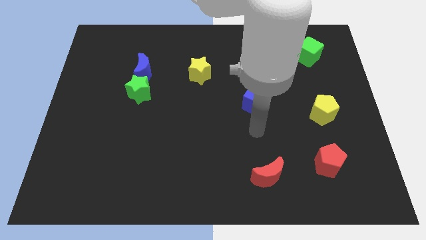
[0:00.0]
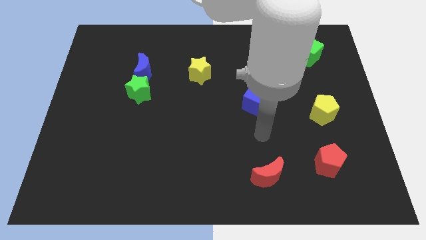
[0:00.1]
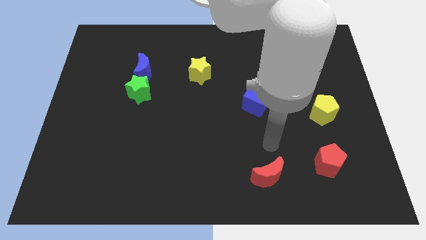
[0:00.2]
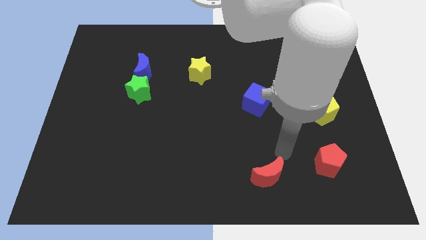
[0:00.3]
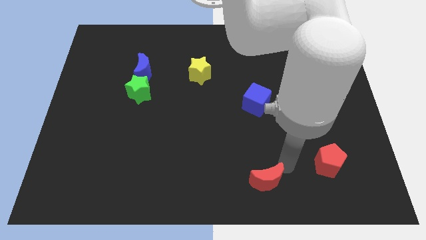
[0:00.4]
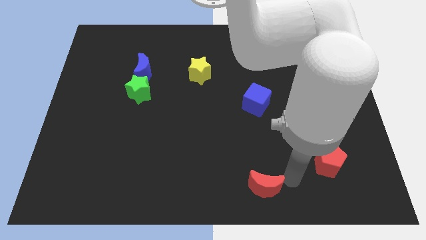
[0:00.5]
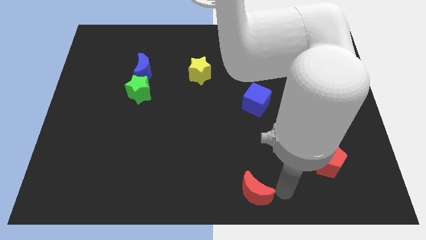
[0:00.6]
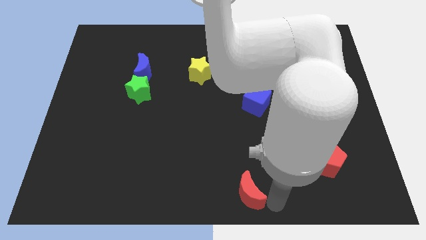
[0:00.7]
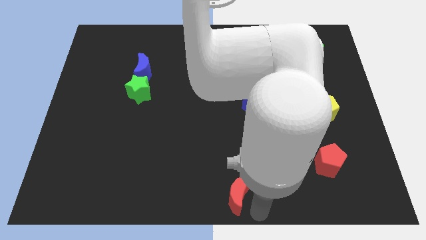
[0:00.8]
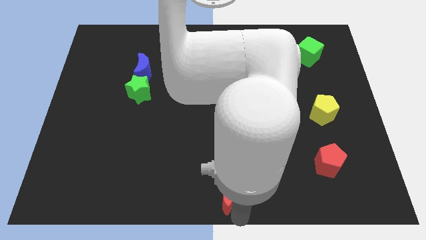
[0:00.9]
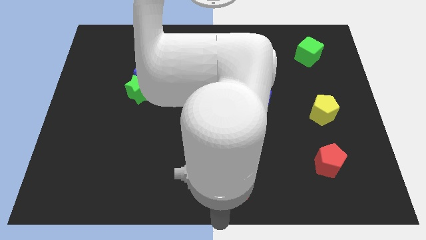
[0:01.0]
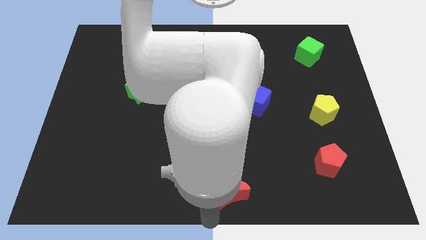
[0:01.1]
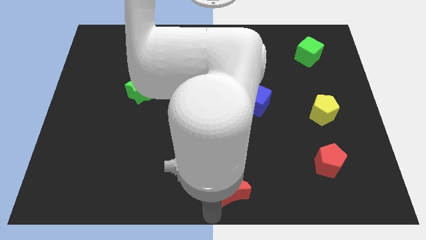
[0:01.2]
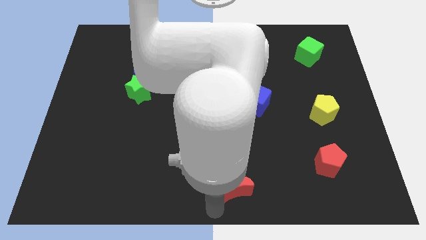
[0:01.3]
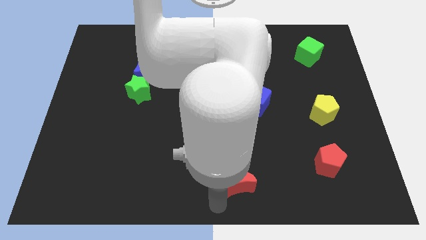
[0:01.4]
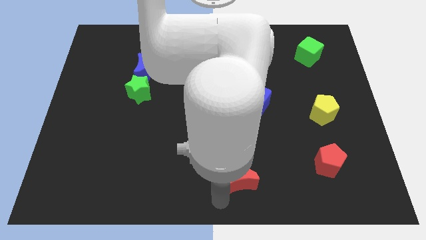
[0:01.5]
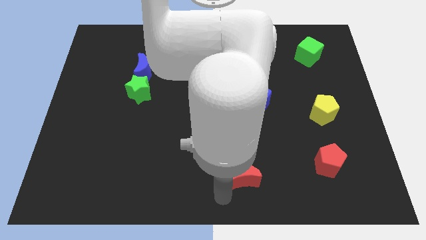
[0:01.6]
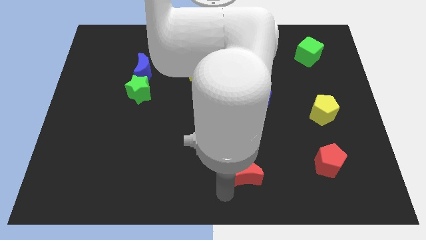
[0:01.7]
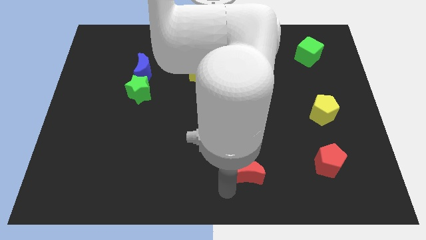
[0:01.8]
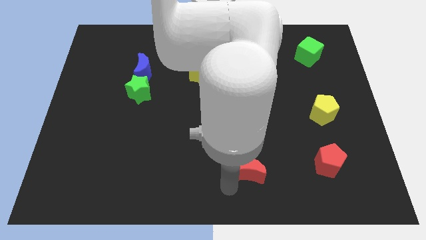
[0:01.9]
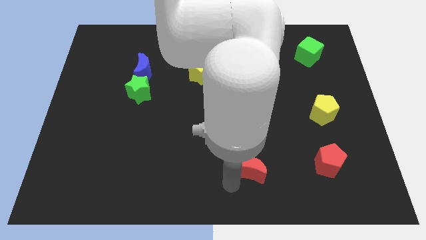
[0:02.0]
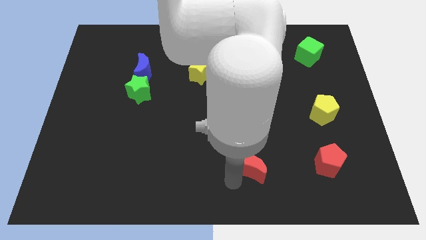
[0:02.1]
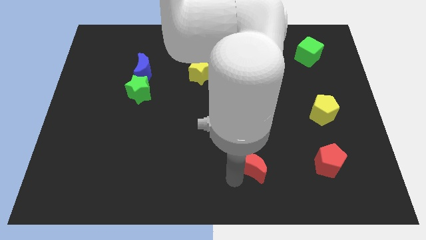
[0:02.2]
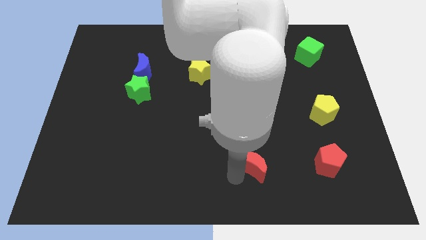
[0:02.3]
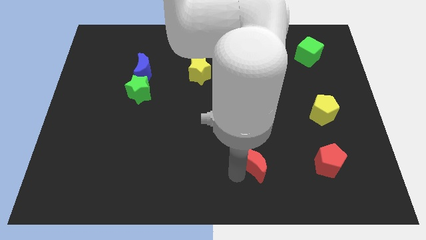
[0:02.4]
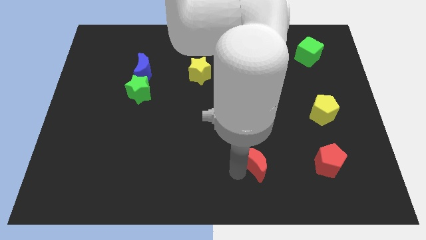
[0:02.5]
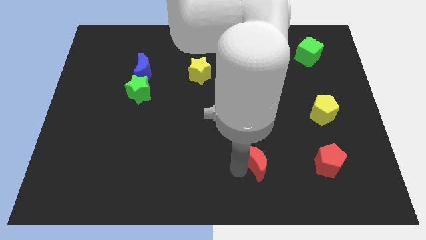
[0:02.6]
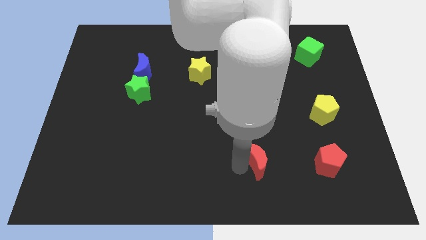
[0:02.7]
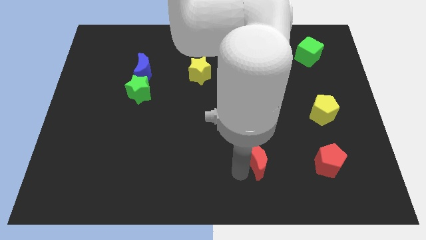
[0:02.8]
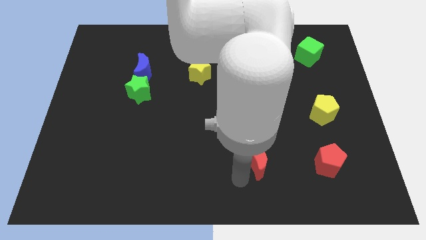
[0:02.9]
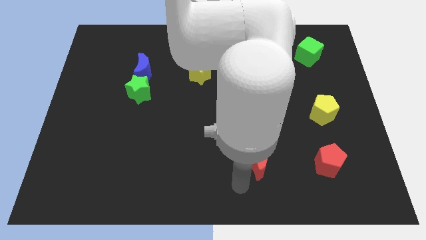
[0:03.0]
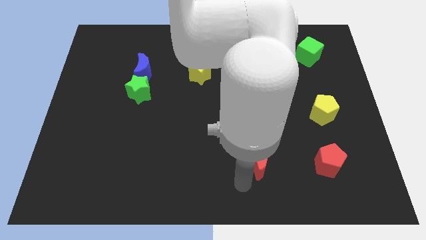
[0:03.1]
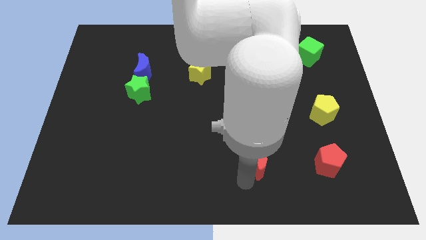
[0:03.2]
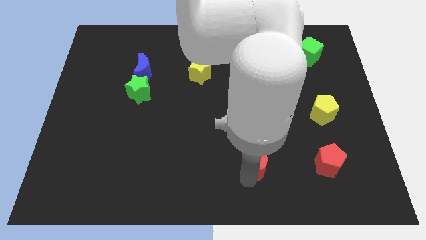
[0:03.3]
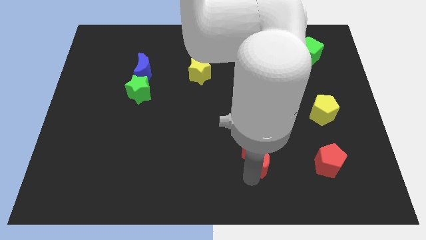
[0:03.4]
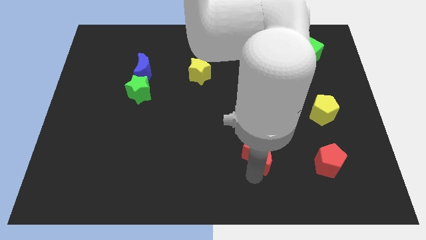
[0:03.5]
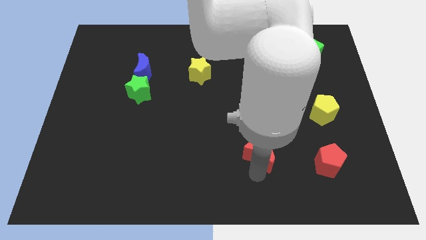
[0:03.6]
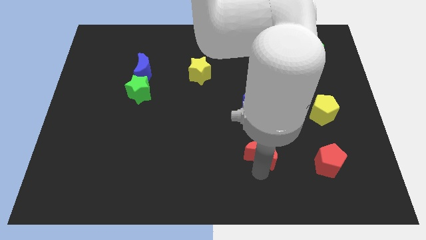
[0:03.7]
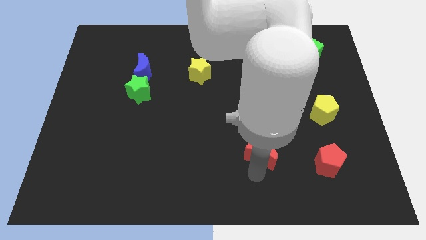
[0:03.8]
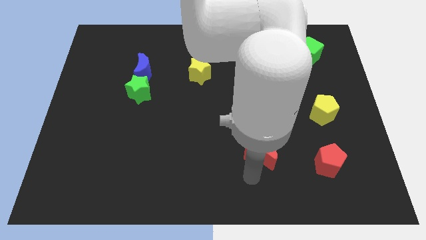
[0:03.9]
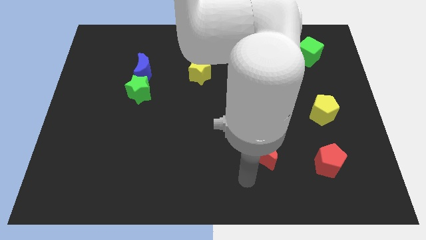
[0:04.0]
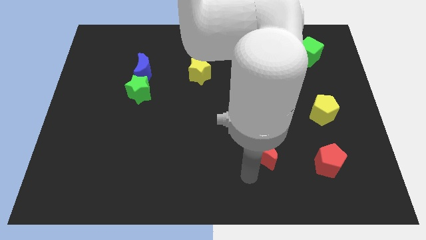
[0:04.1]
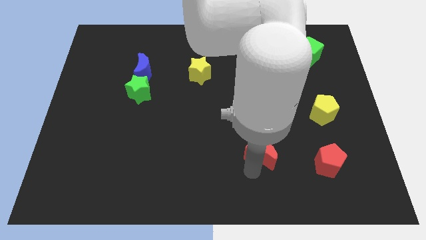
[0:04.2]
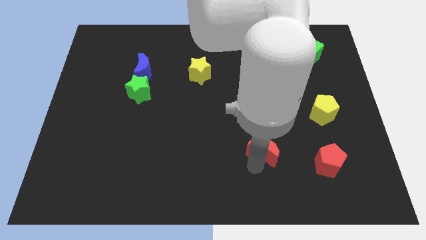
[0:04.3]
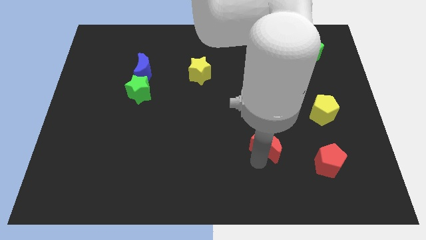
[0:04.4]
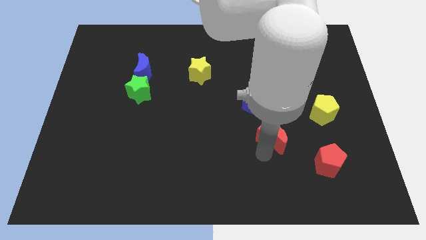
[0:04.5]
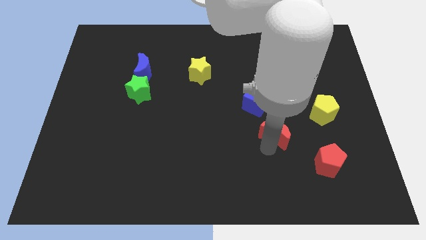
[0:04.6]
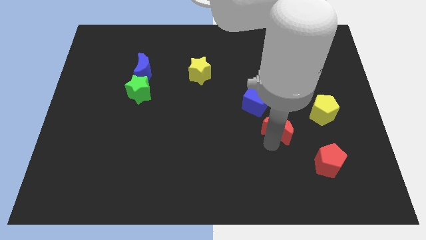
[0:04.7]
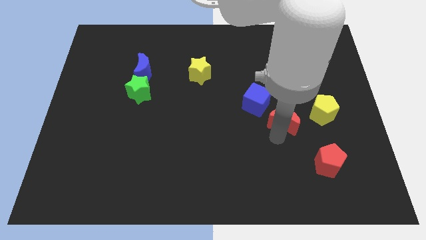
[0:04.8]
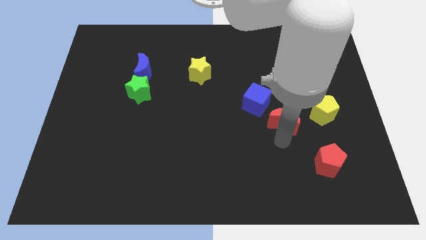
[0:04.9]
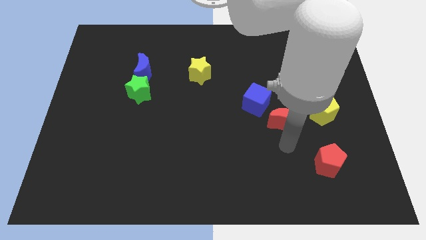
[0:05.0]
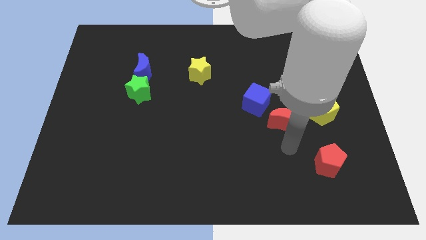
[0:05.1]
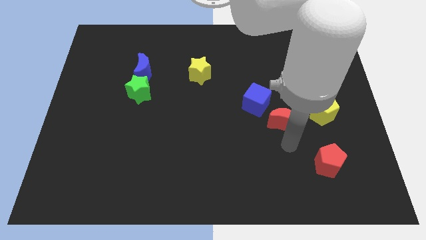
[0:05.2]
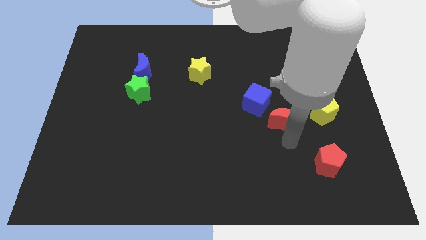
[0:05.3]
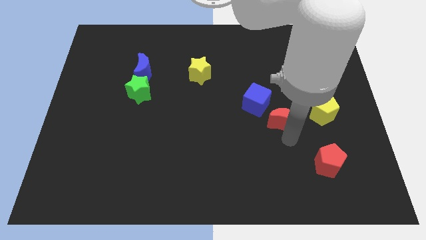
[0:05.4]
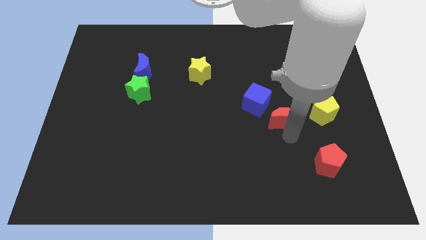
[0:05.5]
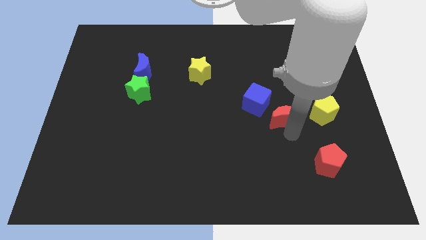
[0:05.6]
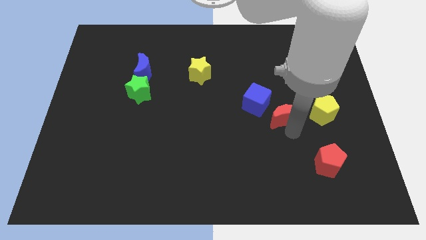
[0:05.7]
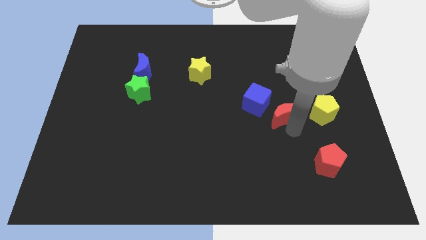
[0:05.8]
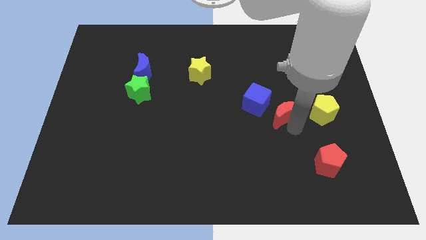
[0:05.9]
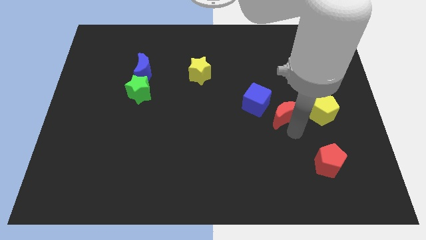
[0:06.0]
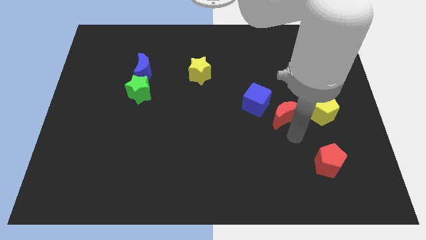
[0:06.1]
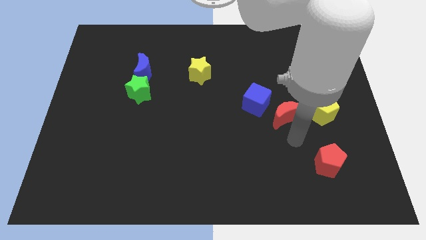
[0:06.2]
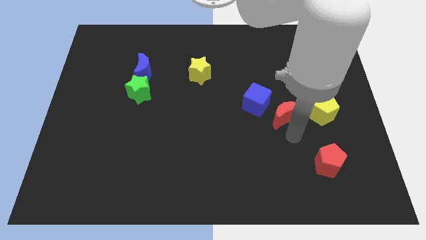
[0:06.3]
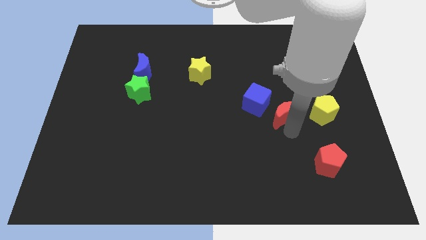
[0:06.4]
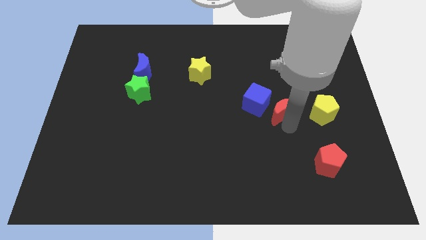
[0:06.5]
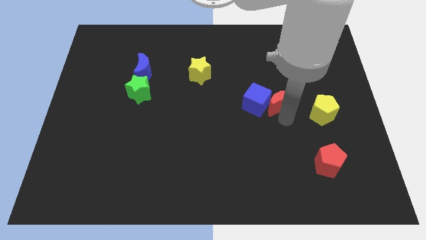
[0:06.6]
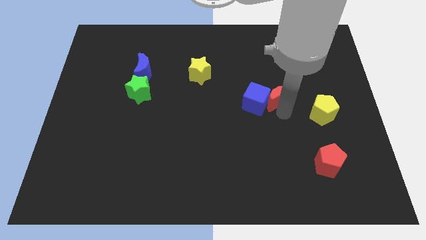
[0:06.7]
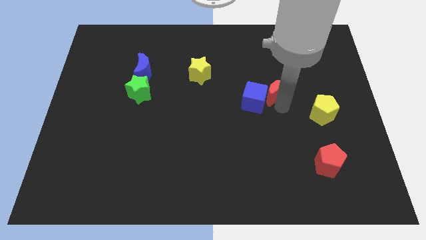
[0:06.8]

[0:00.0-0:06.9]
move the red moon upwards

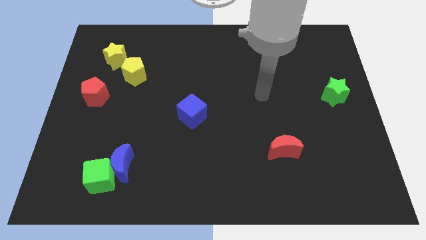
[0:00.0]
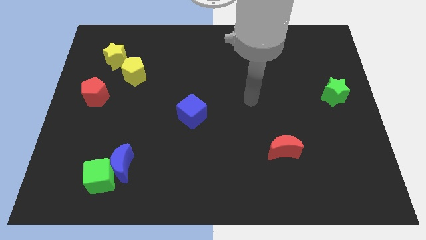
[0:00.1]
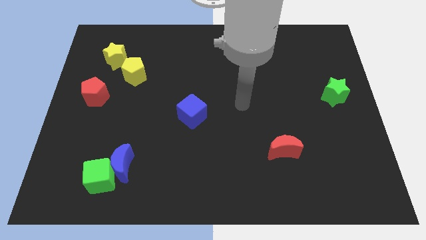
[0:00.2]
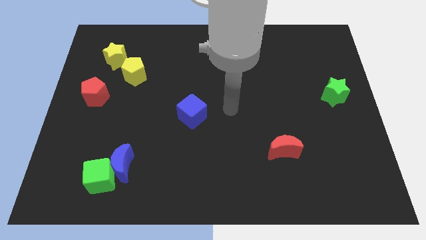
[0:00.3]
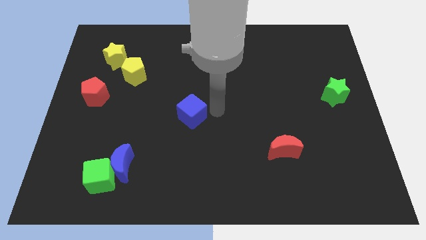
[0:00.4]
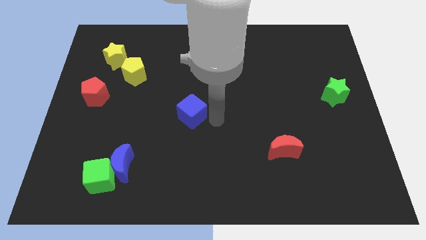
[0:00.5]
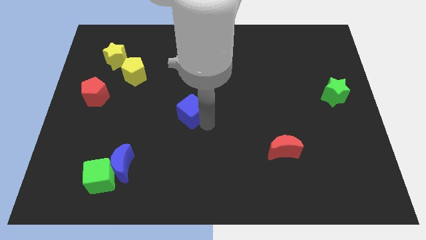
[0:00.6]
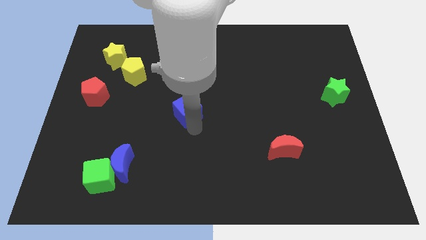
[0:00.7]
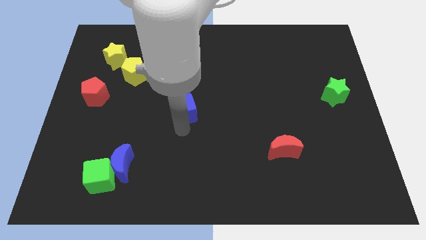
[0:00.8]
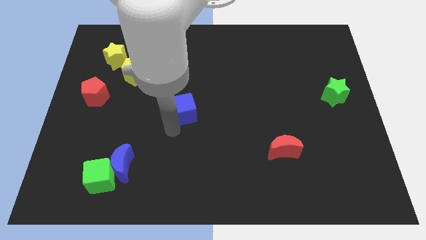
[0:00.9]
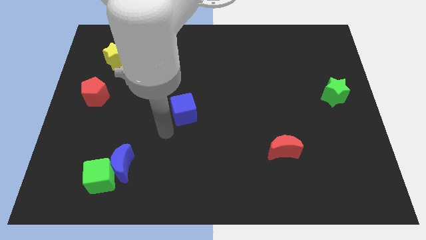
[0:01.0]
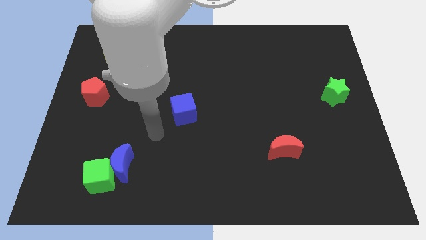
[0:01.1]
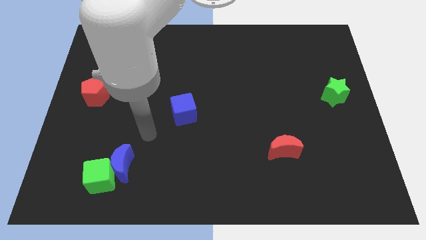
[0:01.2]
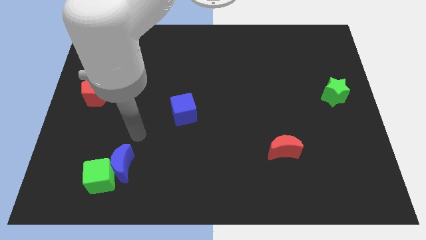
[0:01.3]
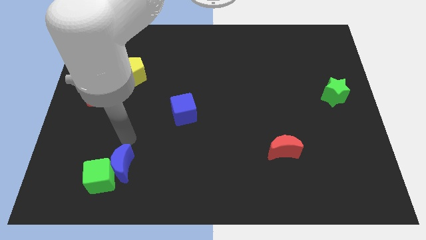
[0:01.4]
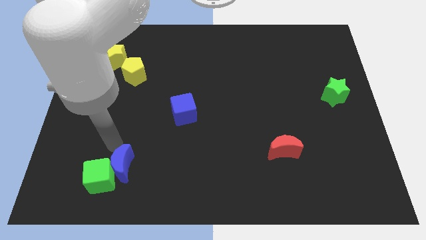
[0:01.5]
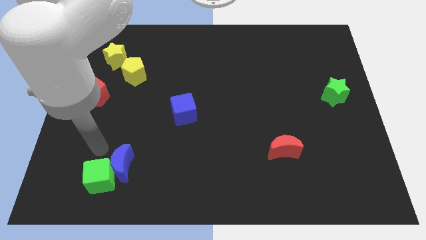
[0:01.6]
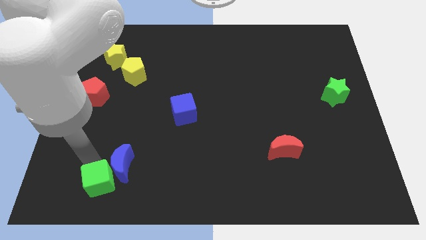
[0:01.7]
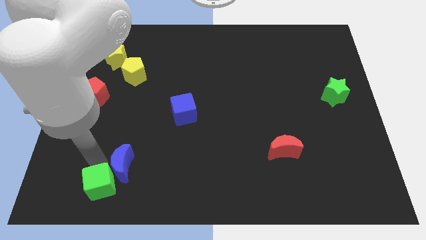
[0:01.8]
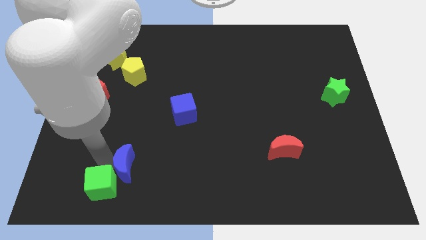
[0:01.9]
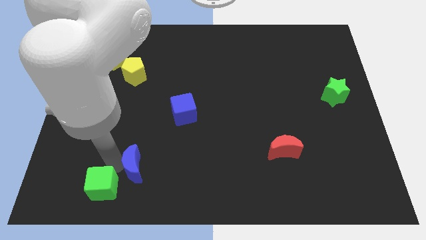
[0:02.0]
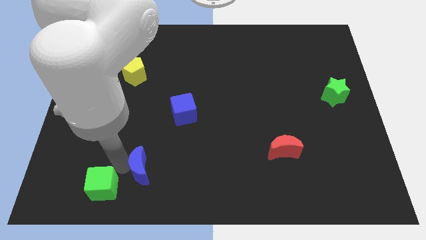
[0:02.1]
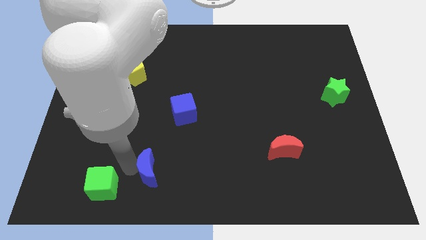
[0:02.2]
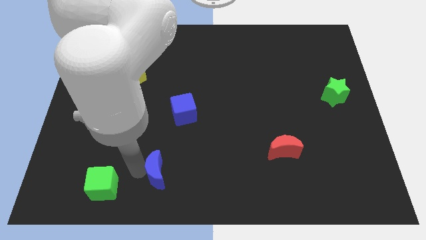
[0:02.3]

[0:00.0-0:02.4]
slightly push the blue moon to the right
